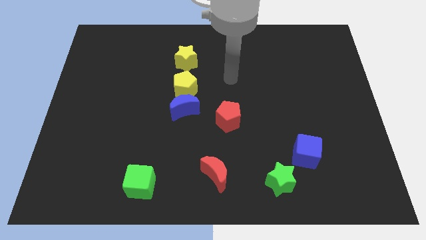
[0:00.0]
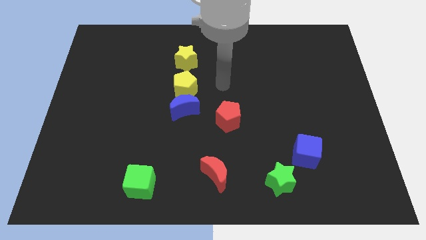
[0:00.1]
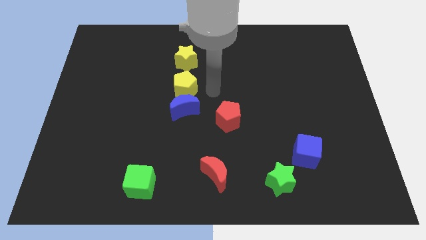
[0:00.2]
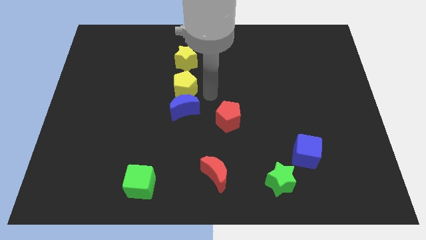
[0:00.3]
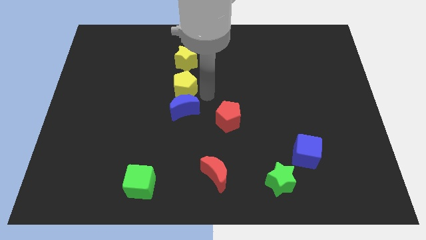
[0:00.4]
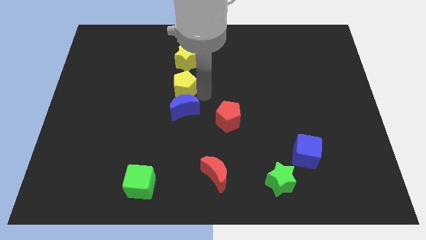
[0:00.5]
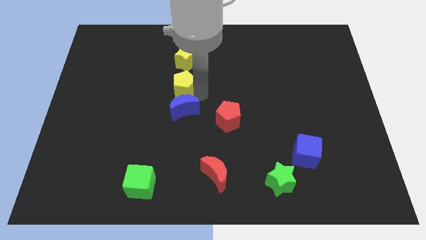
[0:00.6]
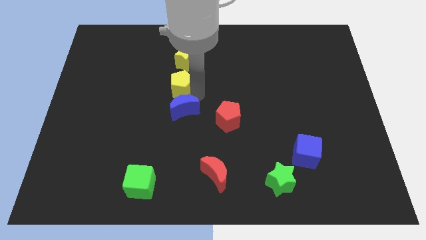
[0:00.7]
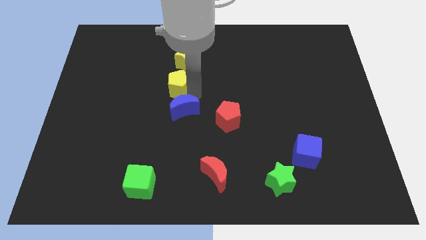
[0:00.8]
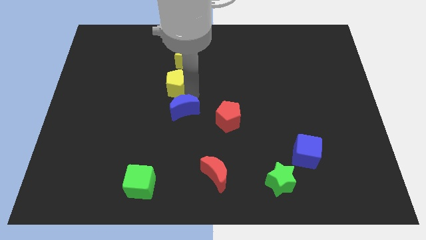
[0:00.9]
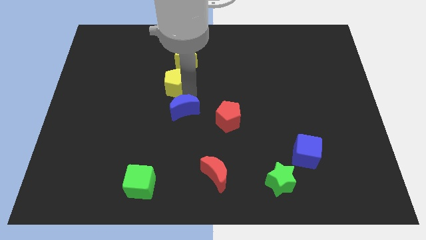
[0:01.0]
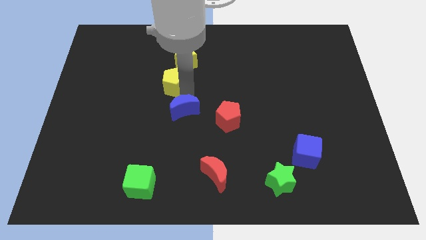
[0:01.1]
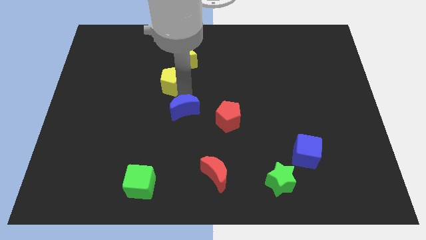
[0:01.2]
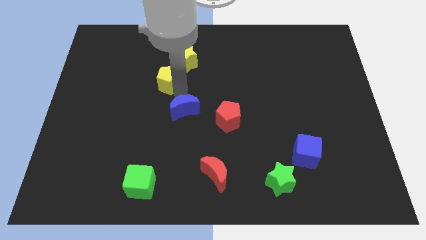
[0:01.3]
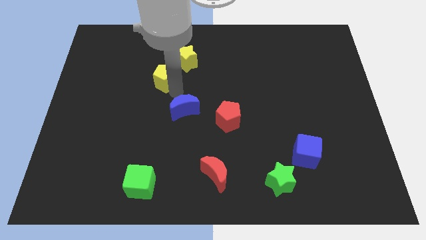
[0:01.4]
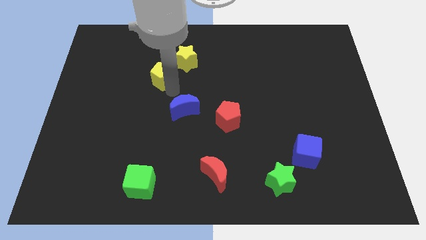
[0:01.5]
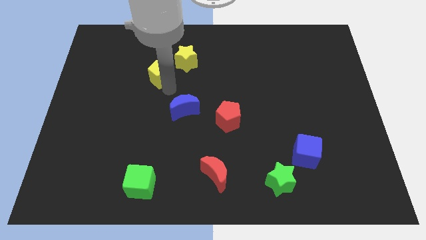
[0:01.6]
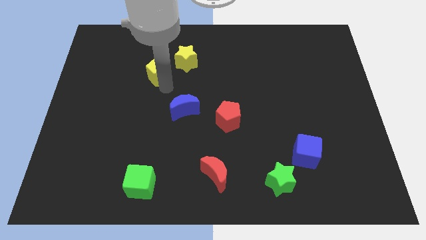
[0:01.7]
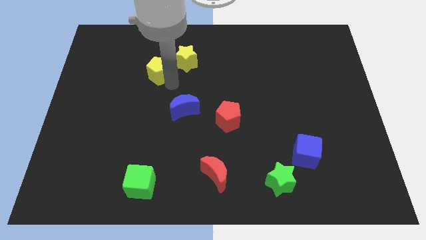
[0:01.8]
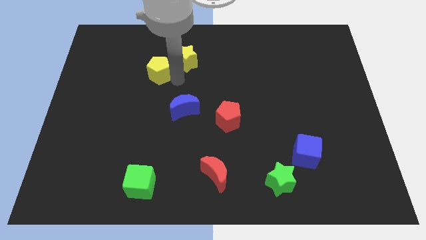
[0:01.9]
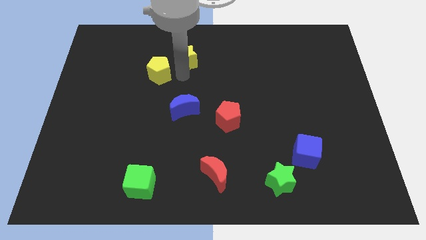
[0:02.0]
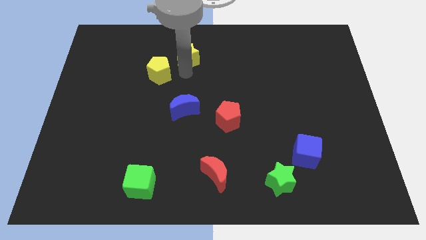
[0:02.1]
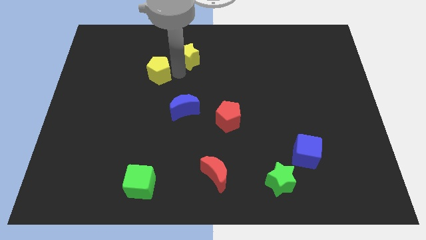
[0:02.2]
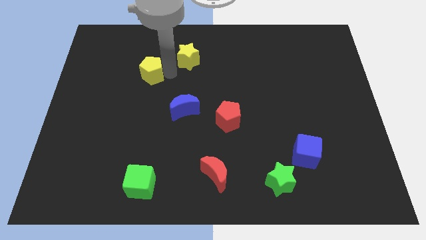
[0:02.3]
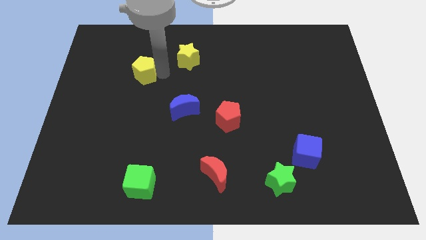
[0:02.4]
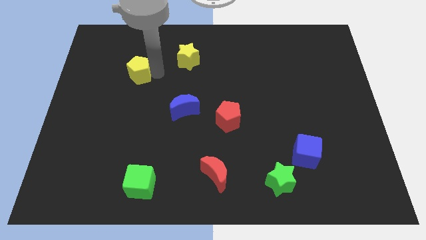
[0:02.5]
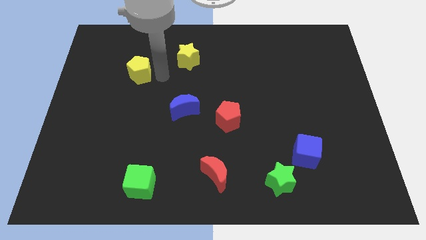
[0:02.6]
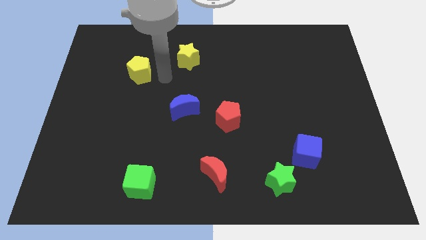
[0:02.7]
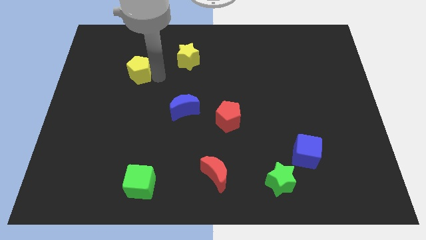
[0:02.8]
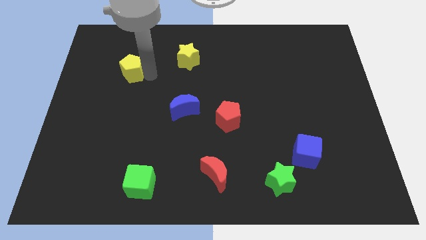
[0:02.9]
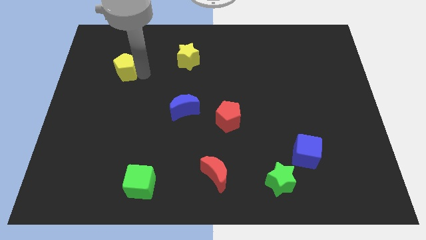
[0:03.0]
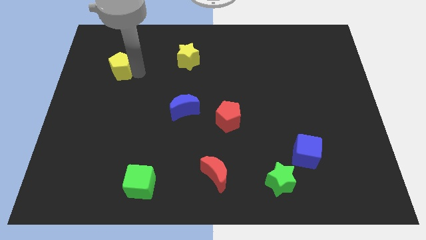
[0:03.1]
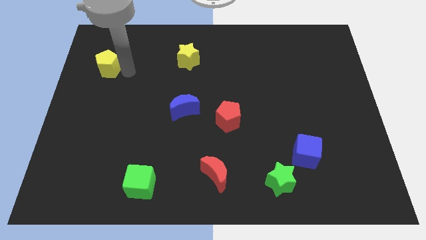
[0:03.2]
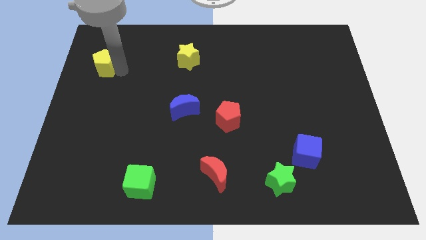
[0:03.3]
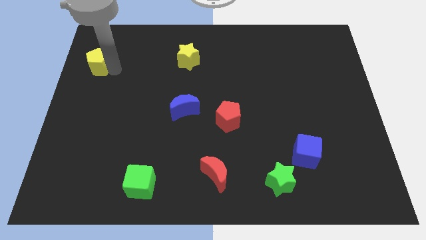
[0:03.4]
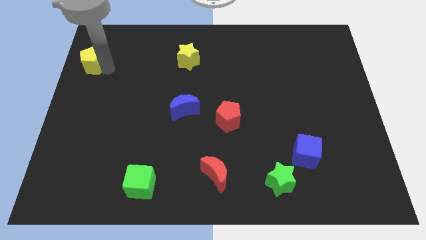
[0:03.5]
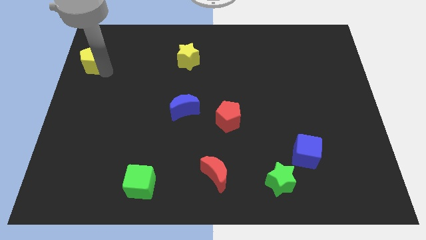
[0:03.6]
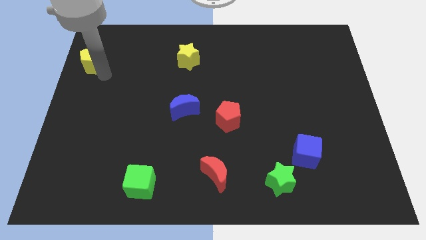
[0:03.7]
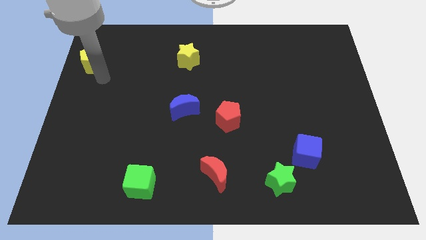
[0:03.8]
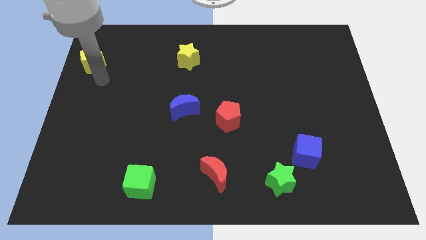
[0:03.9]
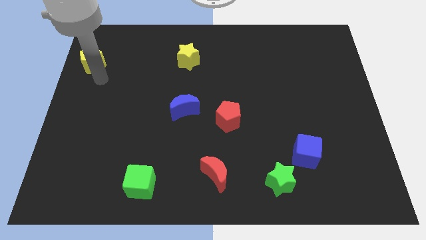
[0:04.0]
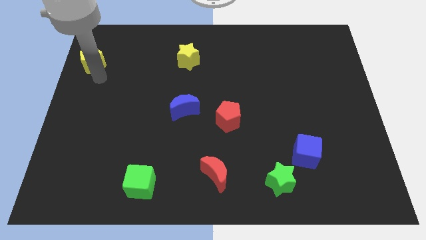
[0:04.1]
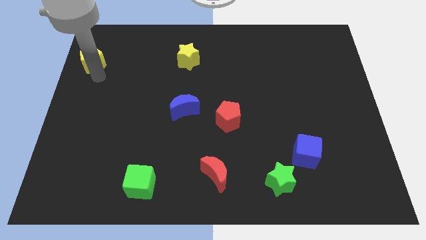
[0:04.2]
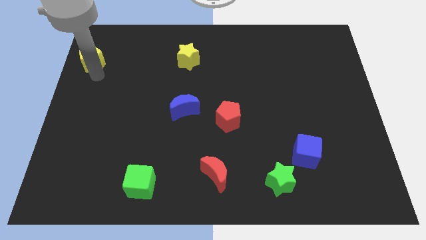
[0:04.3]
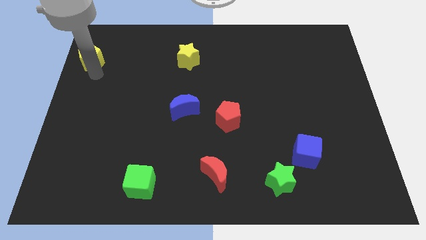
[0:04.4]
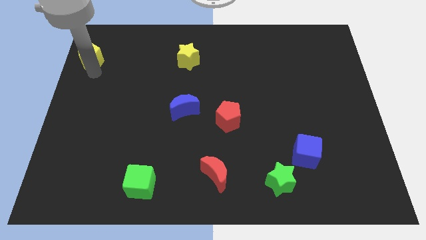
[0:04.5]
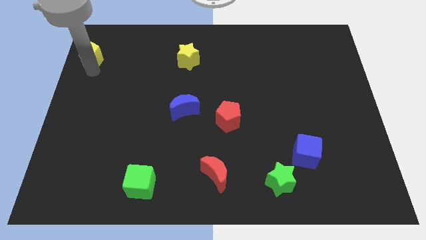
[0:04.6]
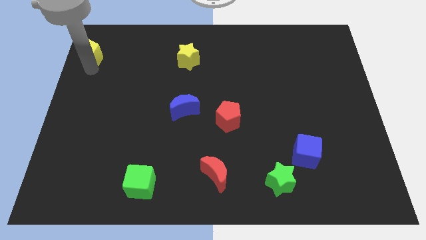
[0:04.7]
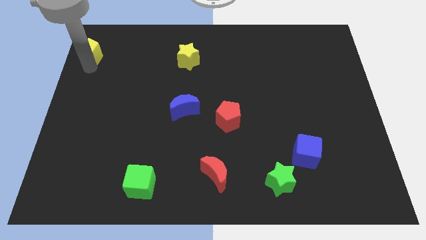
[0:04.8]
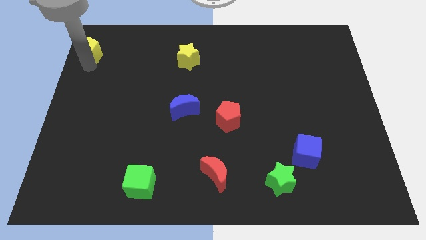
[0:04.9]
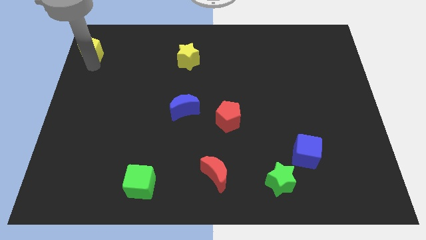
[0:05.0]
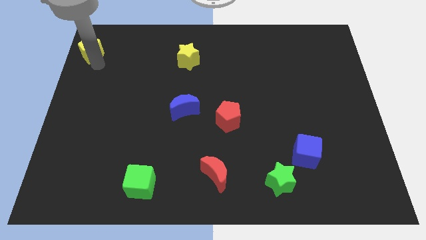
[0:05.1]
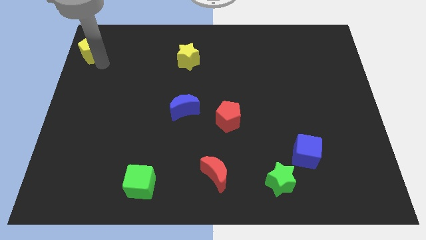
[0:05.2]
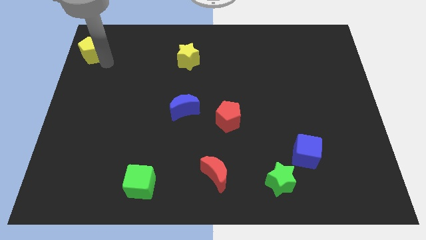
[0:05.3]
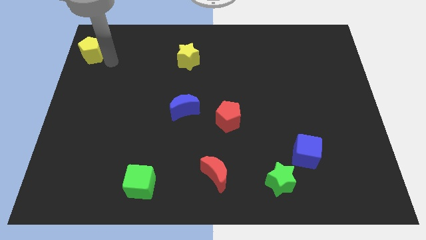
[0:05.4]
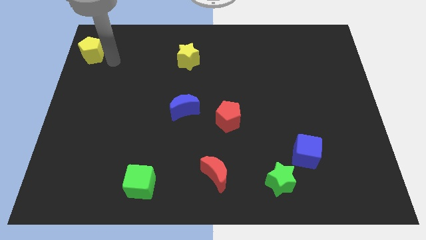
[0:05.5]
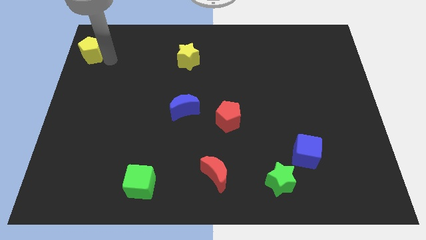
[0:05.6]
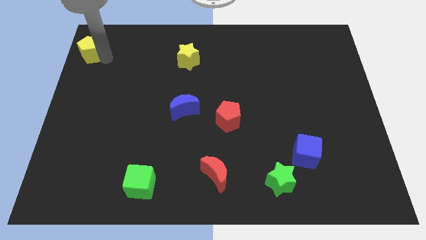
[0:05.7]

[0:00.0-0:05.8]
put the yellow pentagon to the top left of the board

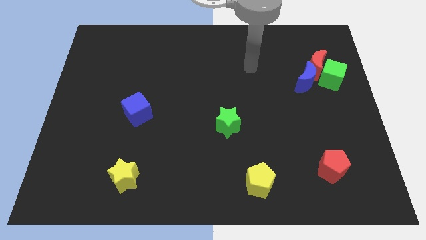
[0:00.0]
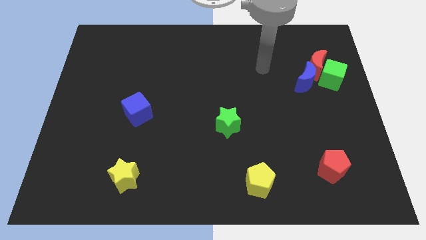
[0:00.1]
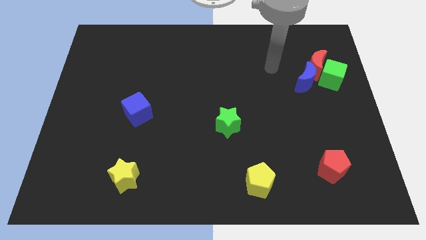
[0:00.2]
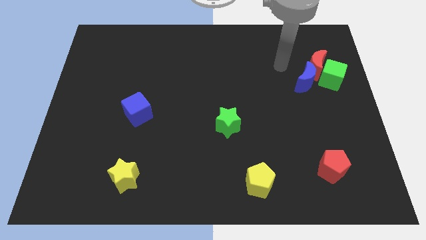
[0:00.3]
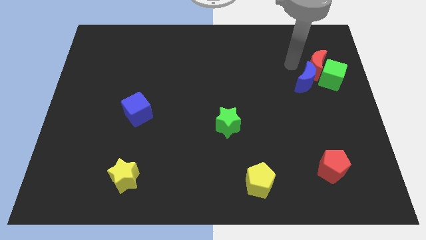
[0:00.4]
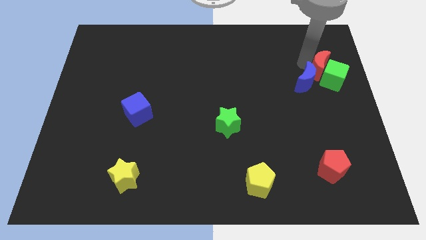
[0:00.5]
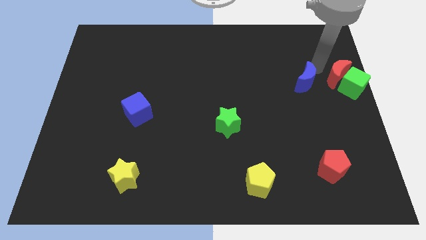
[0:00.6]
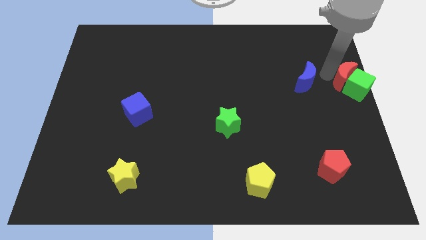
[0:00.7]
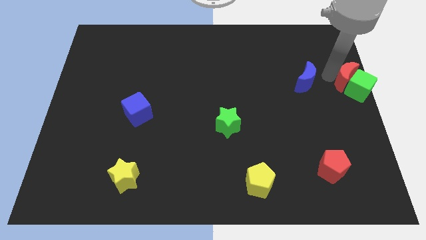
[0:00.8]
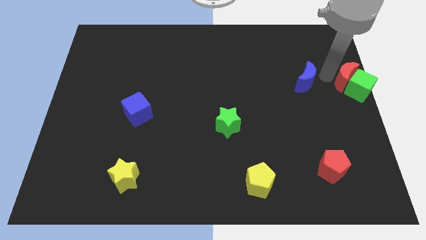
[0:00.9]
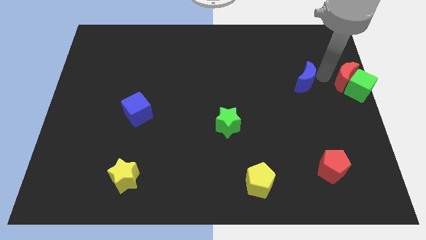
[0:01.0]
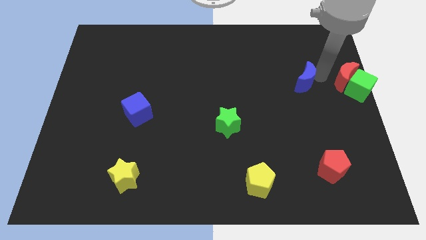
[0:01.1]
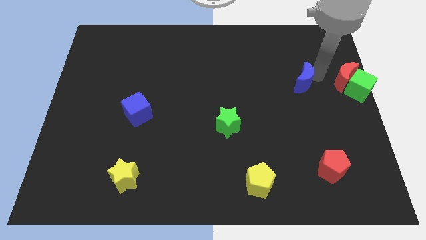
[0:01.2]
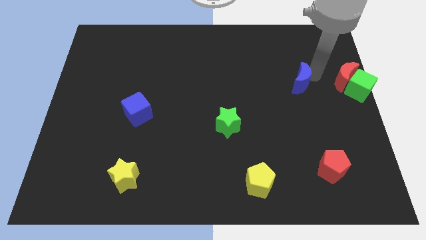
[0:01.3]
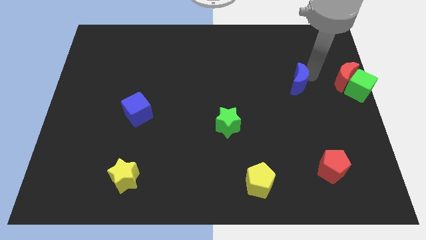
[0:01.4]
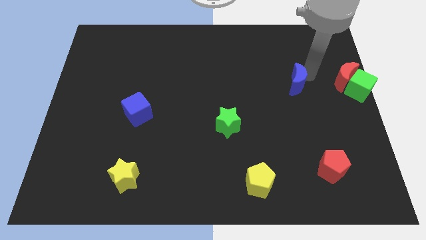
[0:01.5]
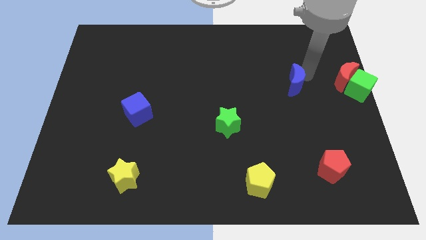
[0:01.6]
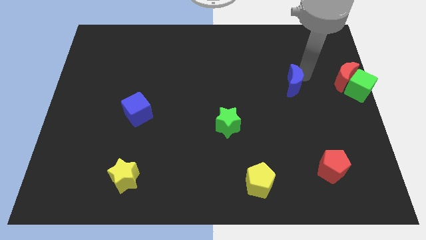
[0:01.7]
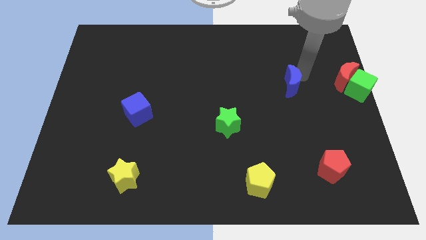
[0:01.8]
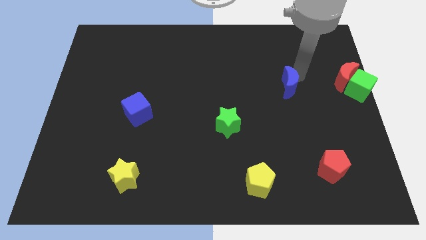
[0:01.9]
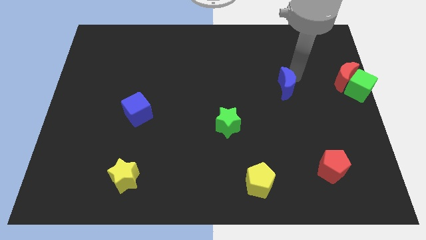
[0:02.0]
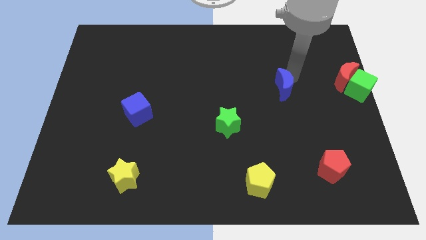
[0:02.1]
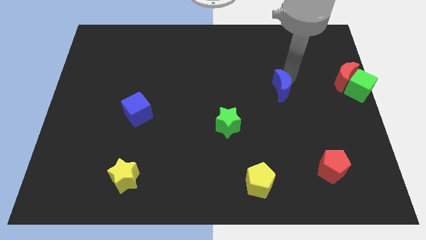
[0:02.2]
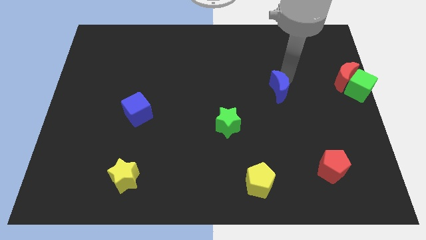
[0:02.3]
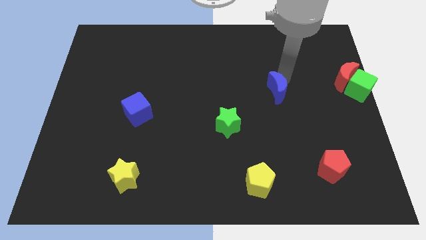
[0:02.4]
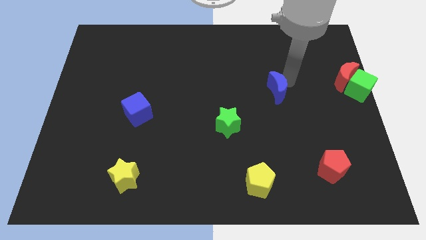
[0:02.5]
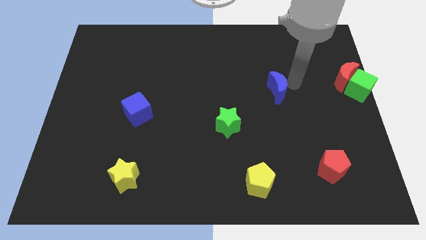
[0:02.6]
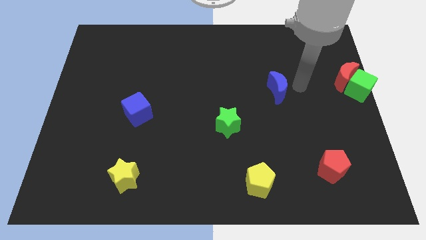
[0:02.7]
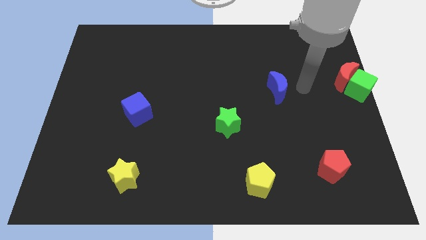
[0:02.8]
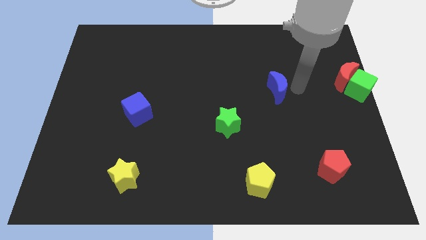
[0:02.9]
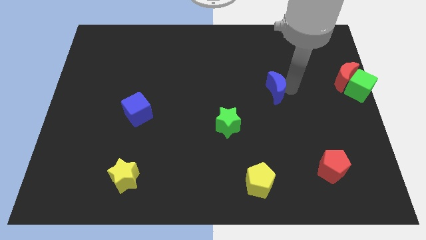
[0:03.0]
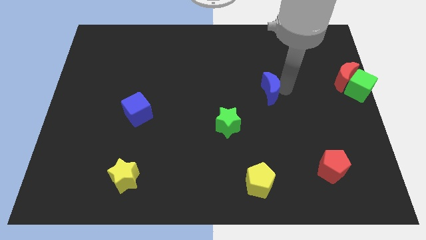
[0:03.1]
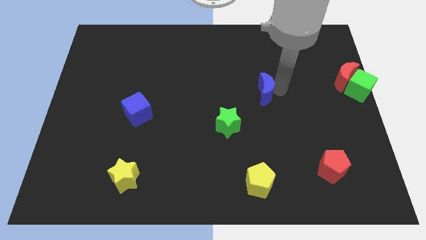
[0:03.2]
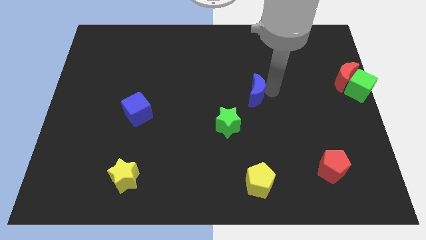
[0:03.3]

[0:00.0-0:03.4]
slide the blue moon to the center of the board
